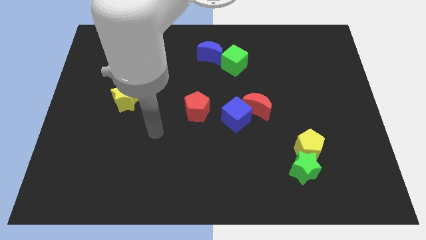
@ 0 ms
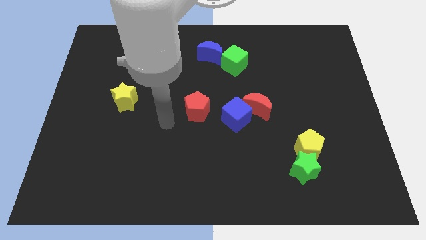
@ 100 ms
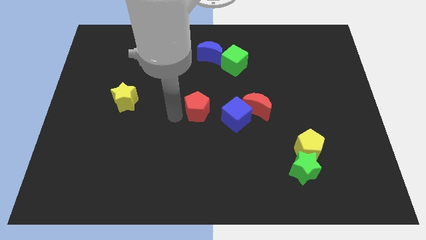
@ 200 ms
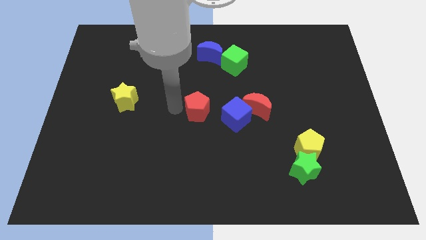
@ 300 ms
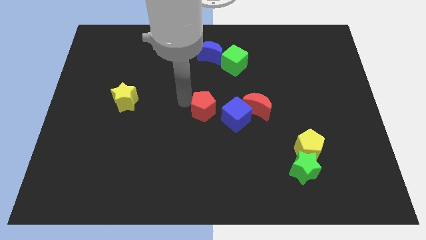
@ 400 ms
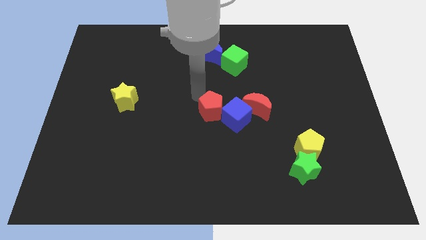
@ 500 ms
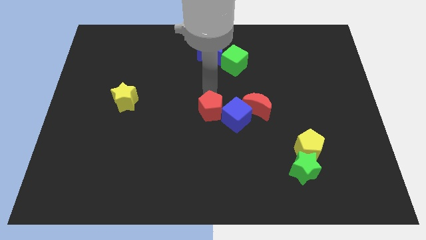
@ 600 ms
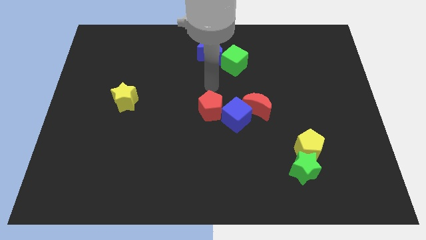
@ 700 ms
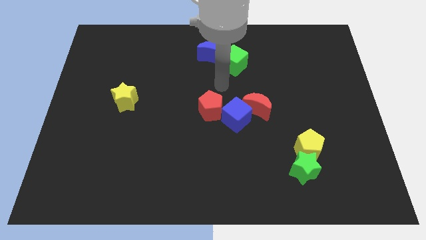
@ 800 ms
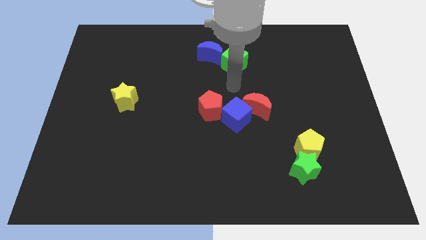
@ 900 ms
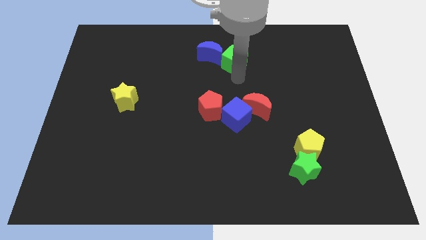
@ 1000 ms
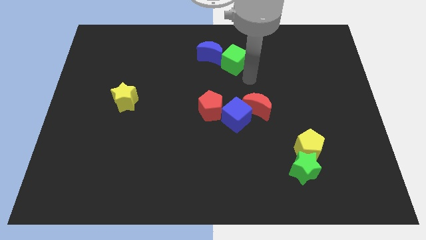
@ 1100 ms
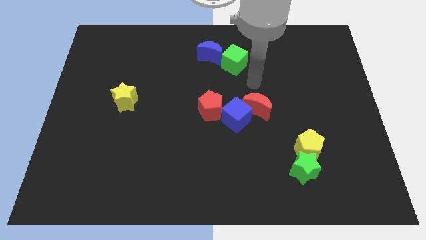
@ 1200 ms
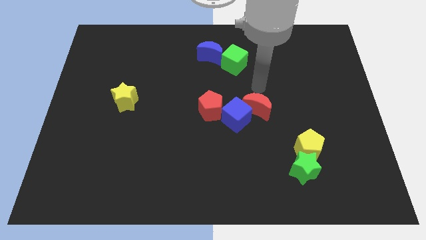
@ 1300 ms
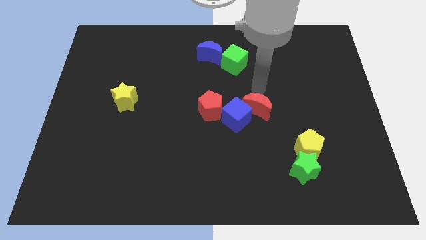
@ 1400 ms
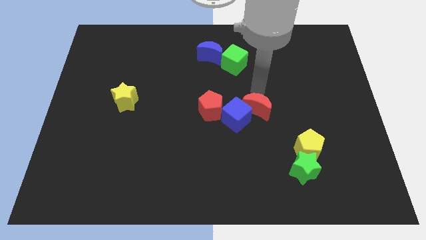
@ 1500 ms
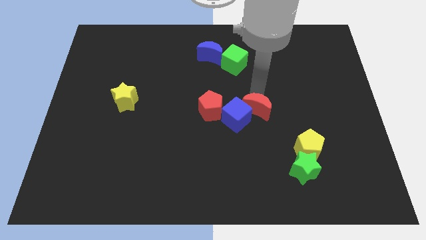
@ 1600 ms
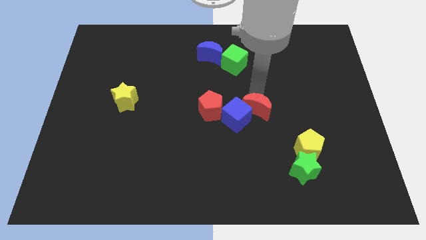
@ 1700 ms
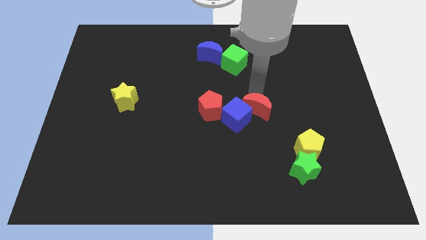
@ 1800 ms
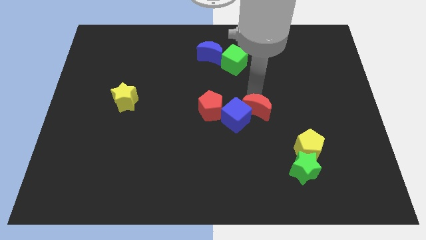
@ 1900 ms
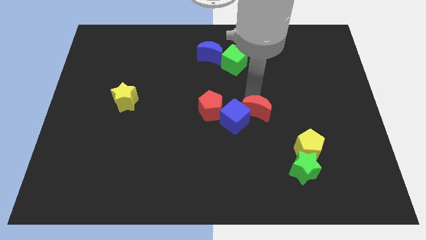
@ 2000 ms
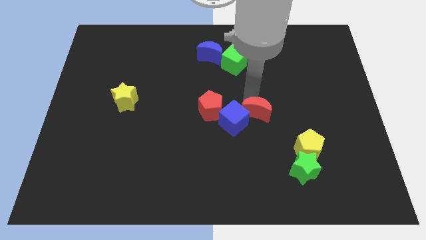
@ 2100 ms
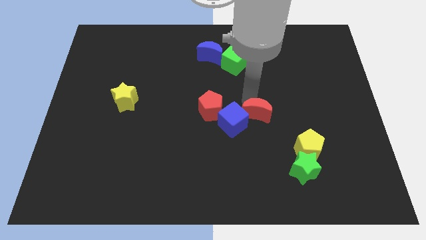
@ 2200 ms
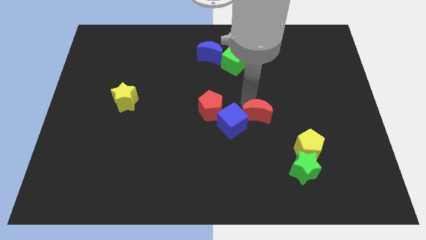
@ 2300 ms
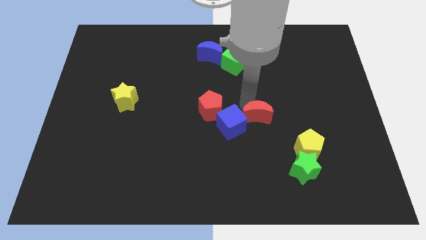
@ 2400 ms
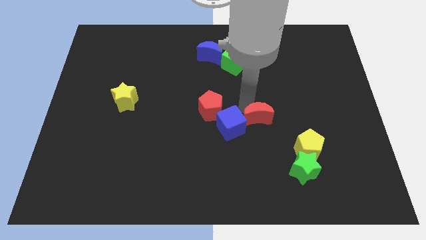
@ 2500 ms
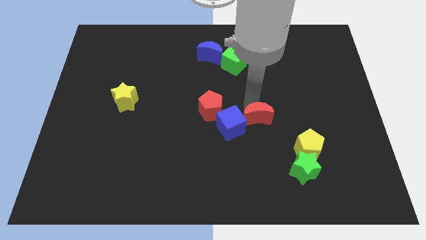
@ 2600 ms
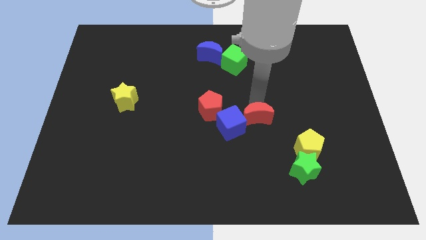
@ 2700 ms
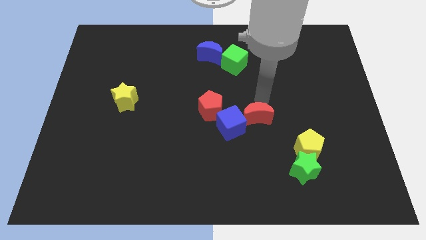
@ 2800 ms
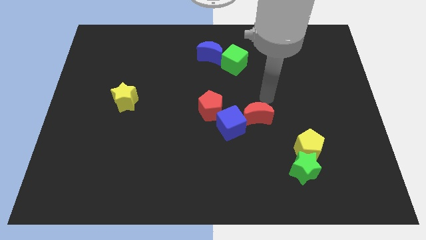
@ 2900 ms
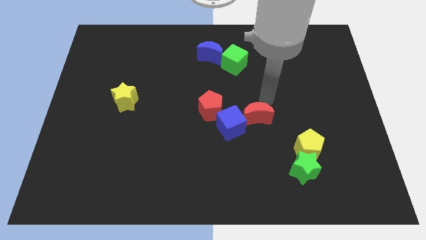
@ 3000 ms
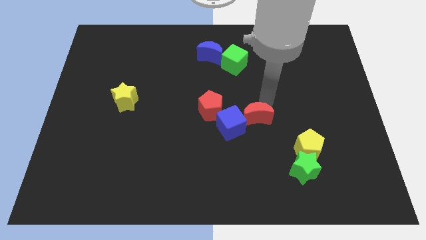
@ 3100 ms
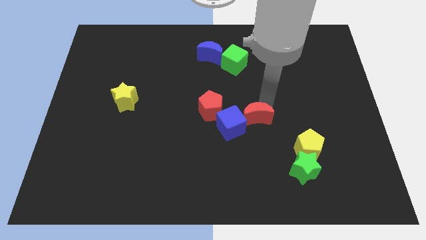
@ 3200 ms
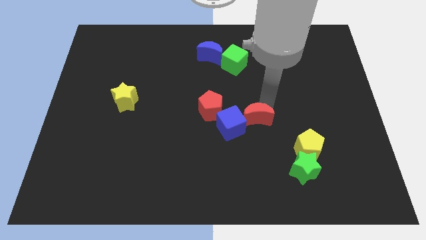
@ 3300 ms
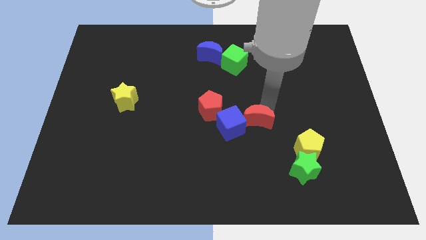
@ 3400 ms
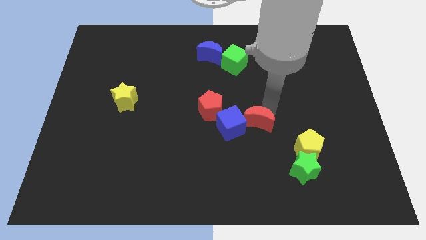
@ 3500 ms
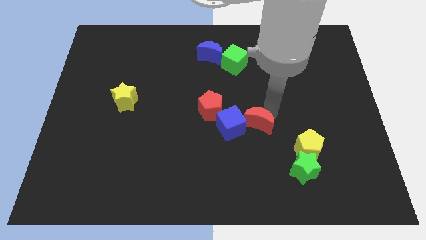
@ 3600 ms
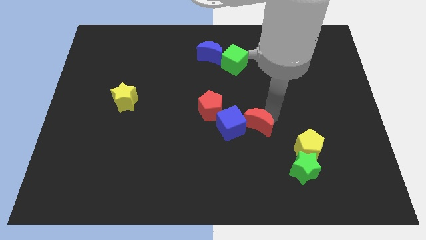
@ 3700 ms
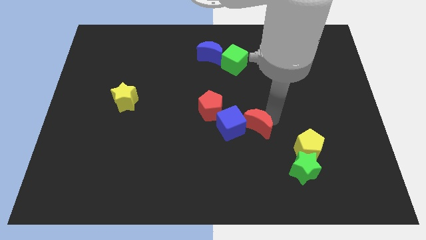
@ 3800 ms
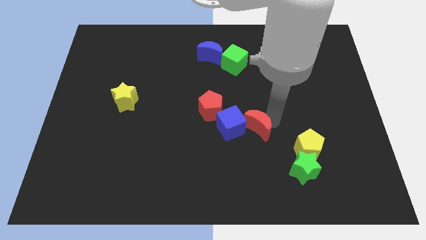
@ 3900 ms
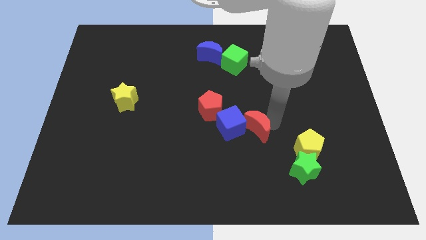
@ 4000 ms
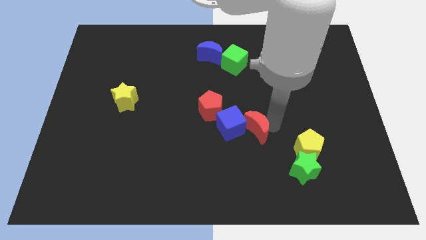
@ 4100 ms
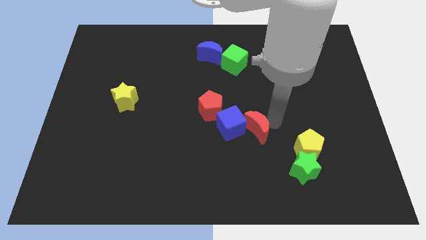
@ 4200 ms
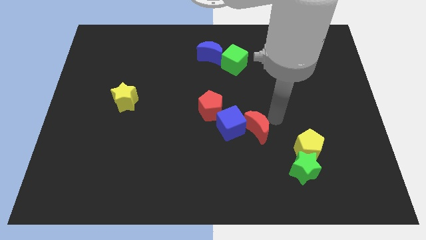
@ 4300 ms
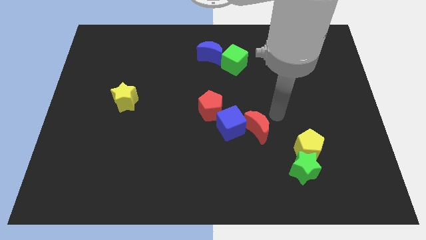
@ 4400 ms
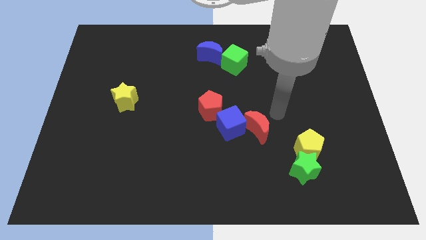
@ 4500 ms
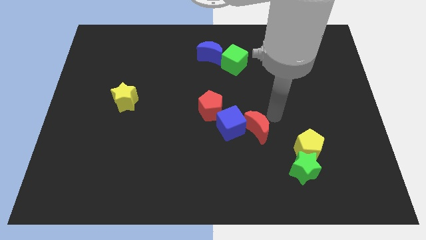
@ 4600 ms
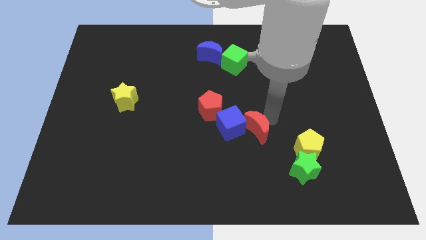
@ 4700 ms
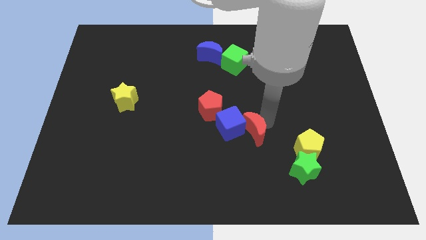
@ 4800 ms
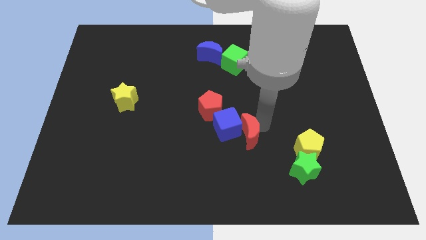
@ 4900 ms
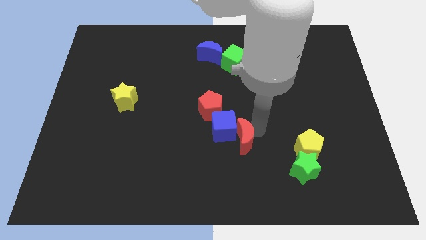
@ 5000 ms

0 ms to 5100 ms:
slide the red moon a little diagonally down and to the left

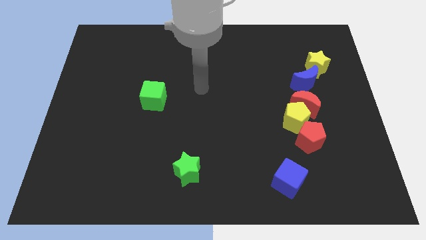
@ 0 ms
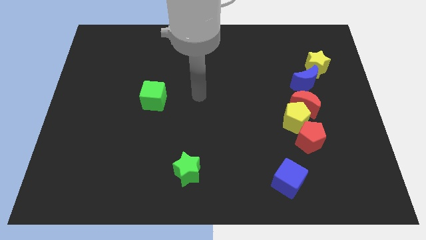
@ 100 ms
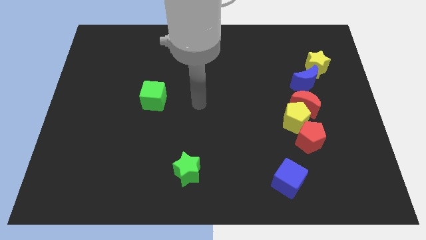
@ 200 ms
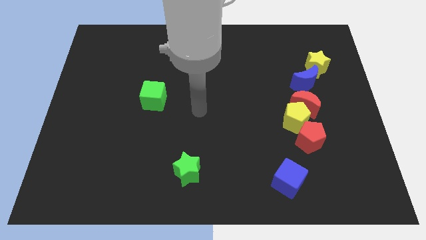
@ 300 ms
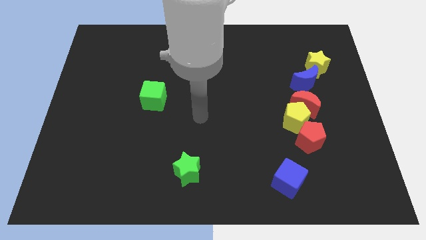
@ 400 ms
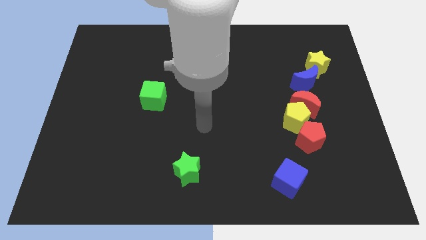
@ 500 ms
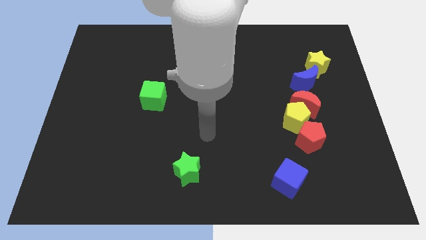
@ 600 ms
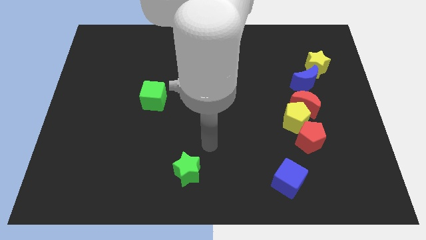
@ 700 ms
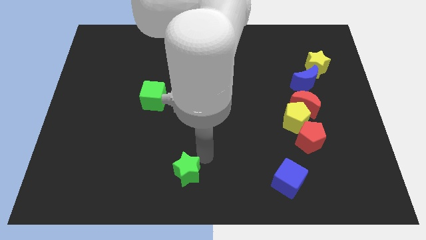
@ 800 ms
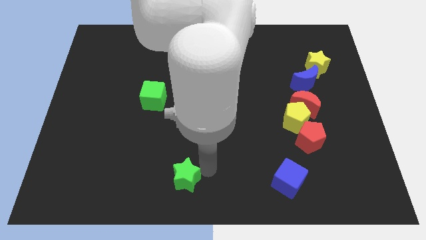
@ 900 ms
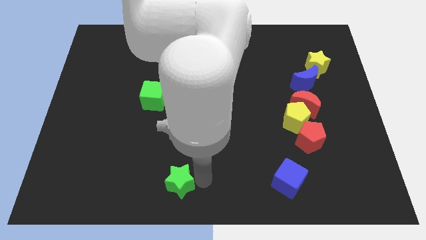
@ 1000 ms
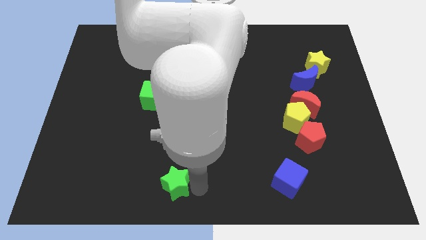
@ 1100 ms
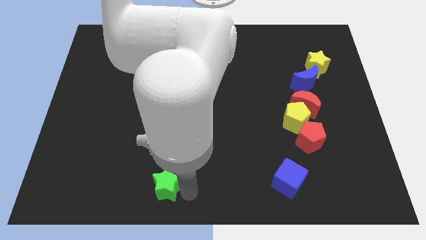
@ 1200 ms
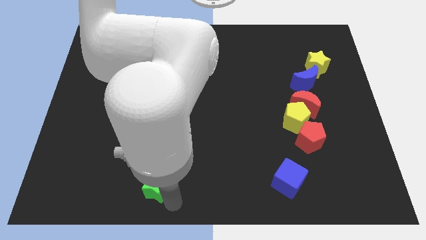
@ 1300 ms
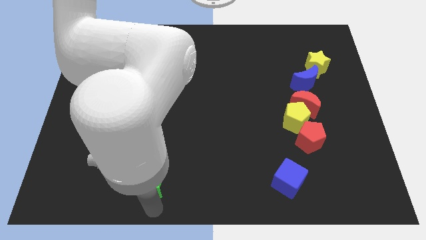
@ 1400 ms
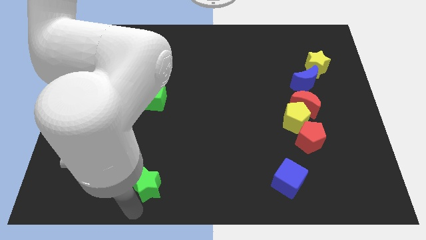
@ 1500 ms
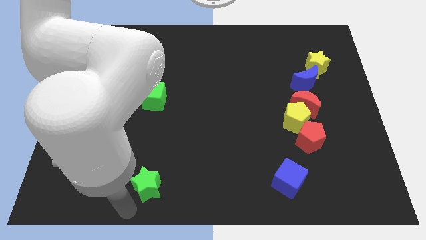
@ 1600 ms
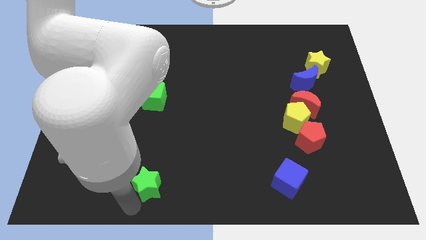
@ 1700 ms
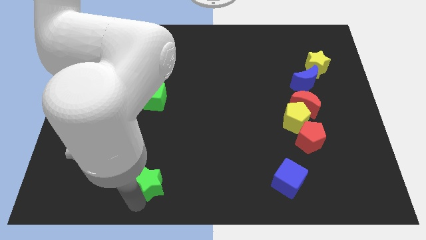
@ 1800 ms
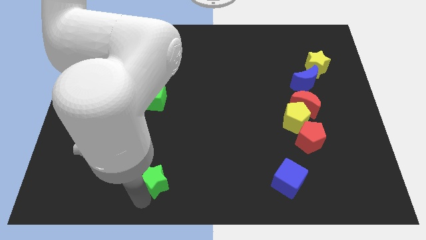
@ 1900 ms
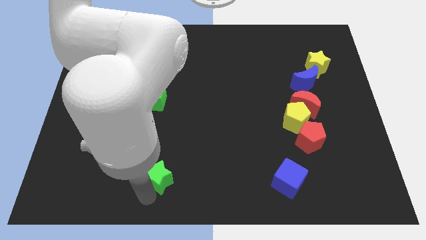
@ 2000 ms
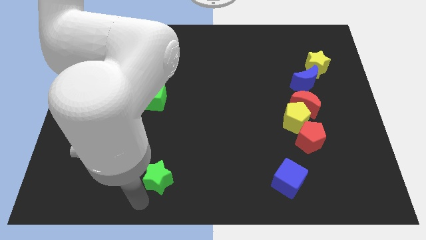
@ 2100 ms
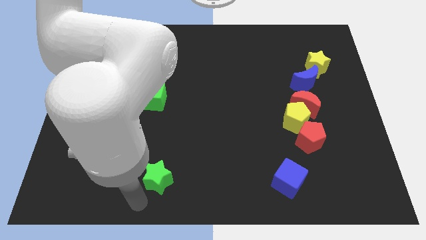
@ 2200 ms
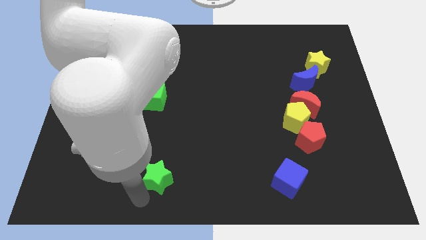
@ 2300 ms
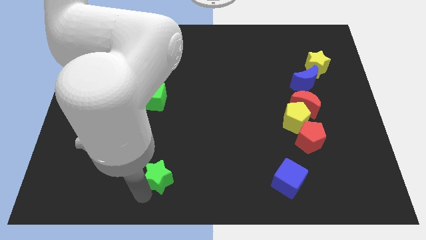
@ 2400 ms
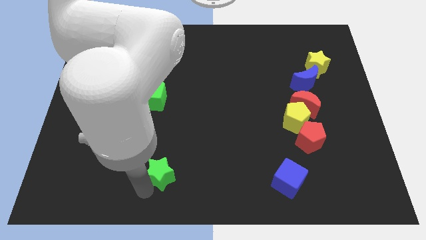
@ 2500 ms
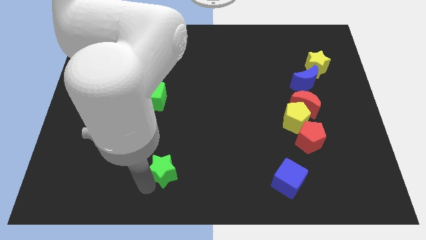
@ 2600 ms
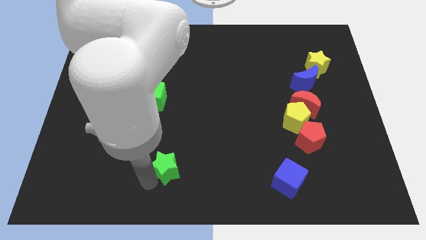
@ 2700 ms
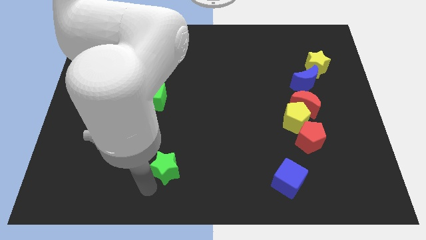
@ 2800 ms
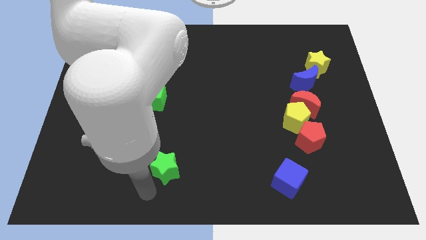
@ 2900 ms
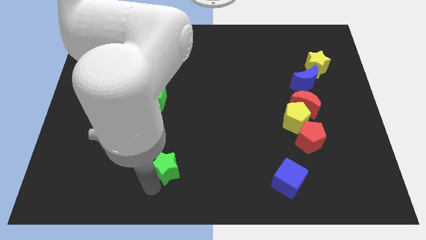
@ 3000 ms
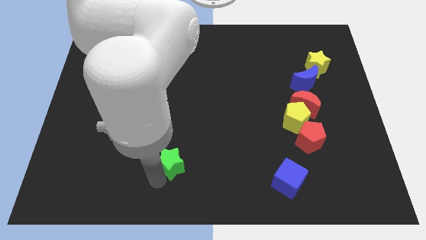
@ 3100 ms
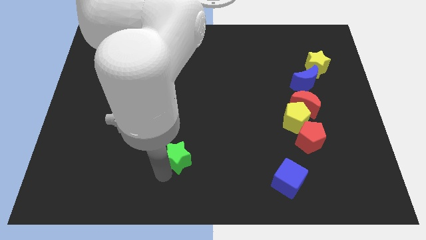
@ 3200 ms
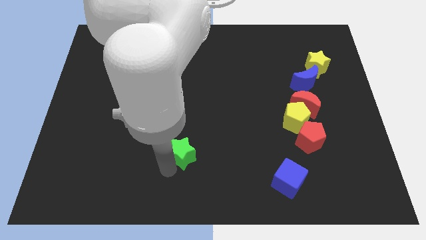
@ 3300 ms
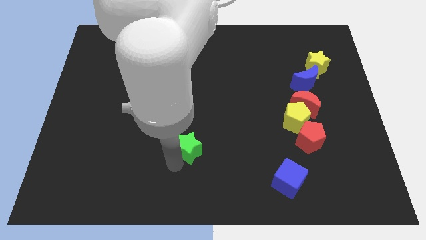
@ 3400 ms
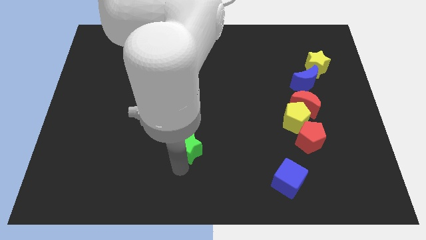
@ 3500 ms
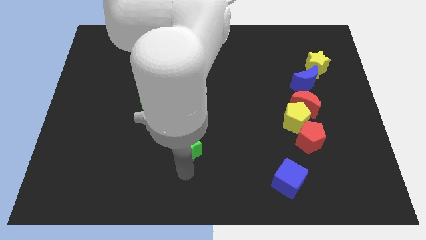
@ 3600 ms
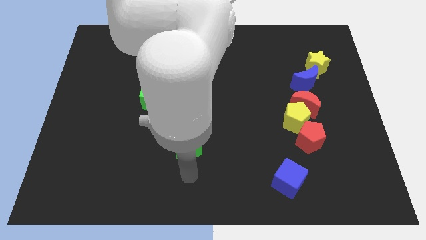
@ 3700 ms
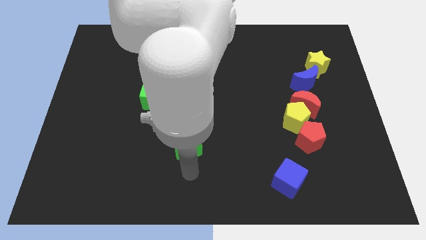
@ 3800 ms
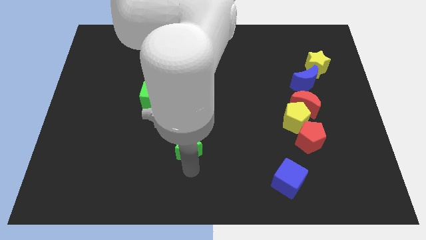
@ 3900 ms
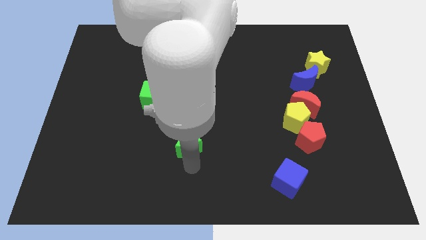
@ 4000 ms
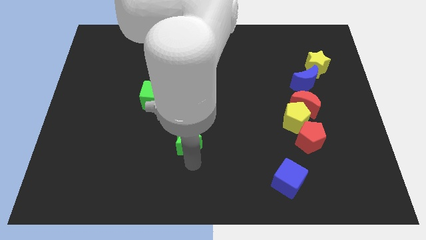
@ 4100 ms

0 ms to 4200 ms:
push the green star up somewhat
